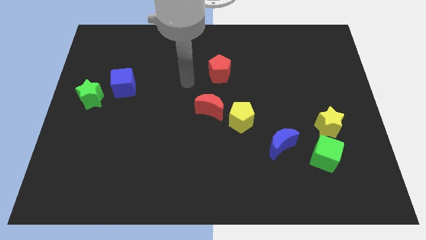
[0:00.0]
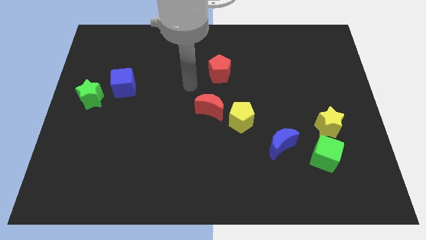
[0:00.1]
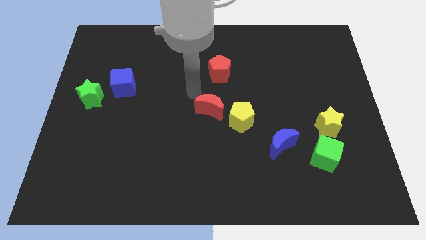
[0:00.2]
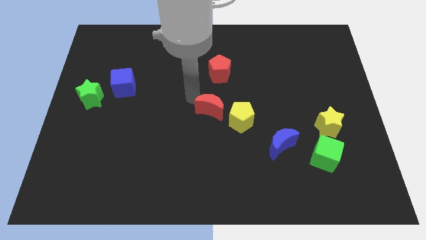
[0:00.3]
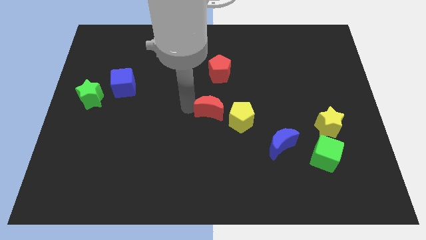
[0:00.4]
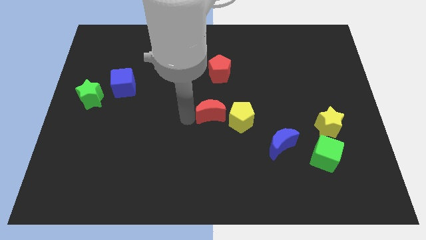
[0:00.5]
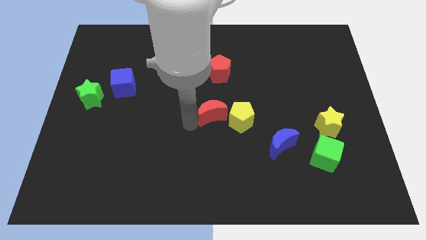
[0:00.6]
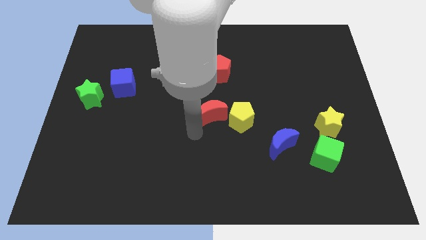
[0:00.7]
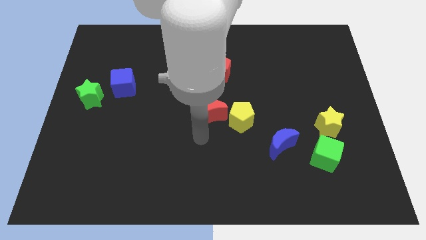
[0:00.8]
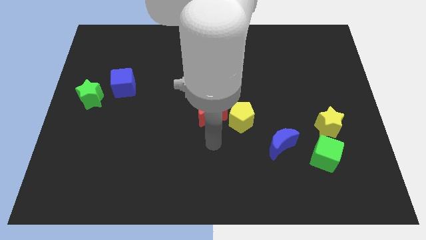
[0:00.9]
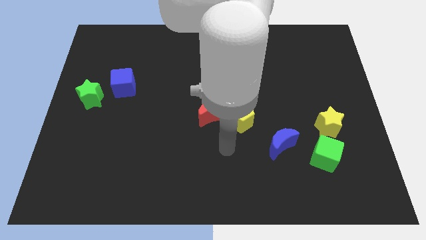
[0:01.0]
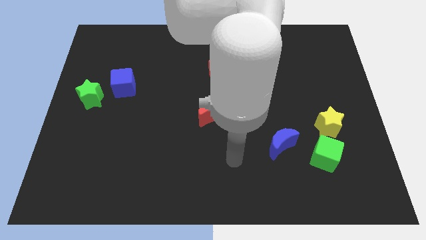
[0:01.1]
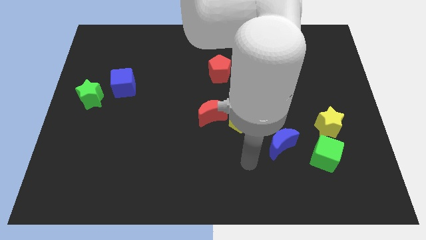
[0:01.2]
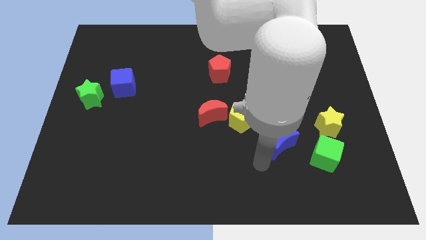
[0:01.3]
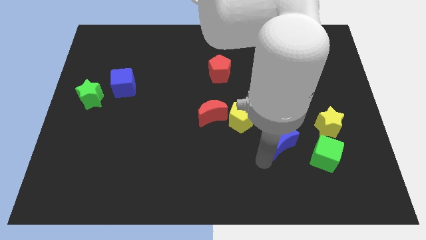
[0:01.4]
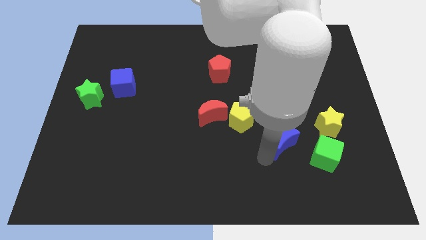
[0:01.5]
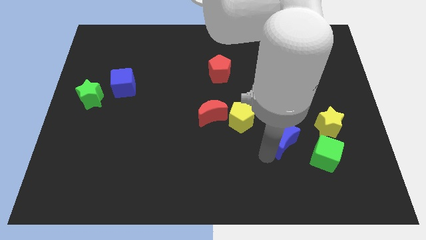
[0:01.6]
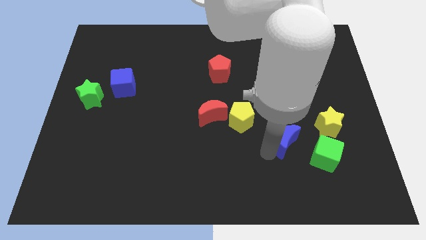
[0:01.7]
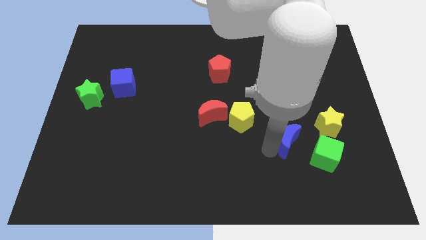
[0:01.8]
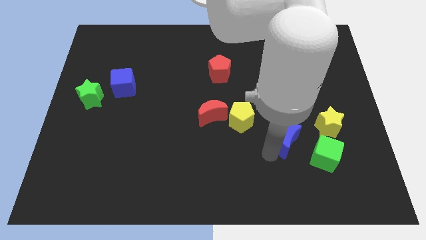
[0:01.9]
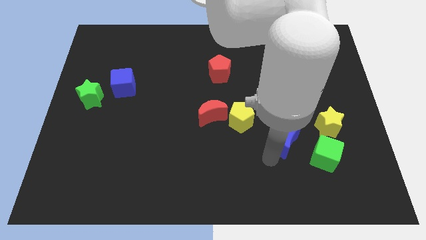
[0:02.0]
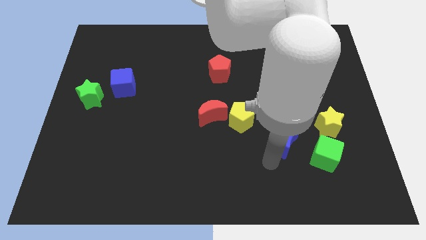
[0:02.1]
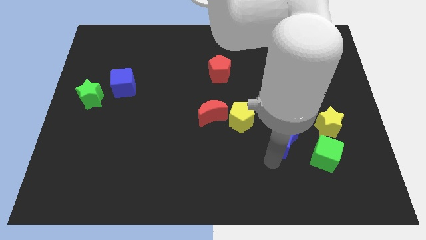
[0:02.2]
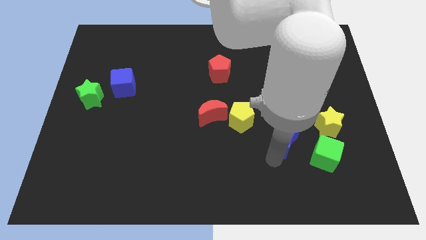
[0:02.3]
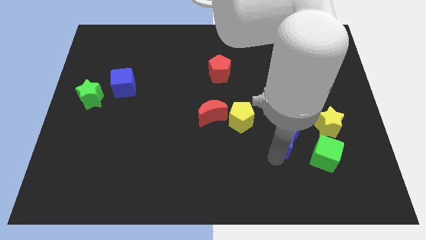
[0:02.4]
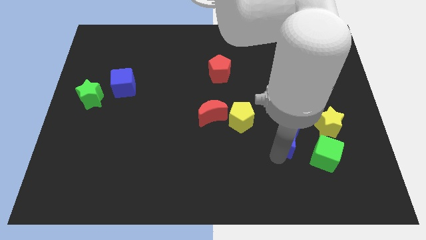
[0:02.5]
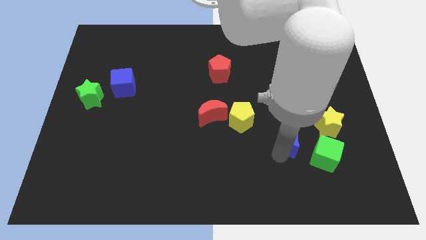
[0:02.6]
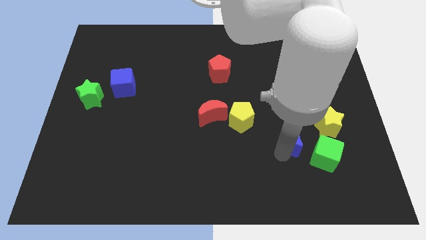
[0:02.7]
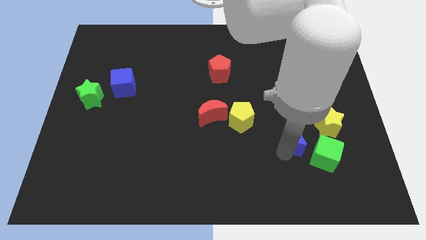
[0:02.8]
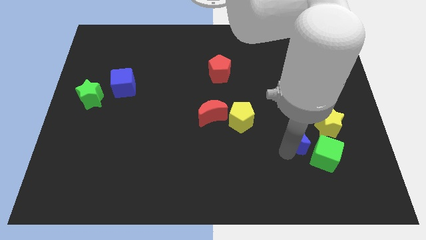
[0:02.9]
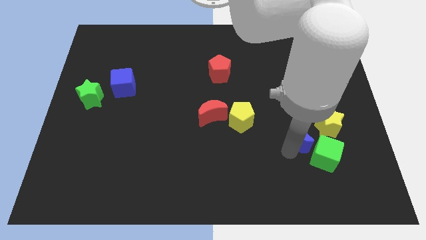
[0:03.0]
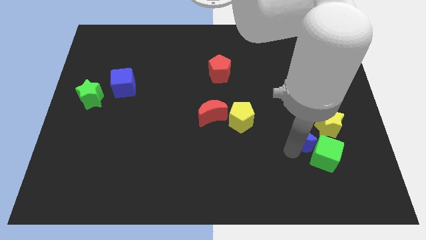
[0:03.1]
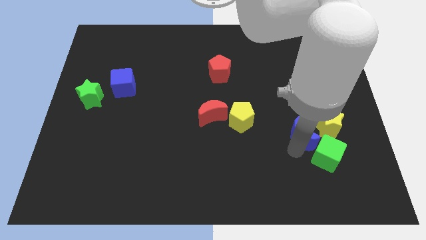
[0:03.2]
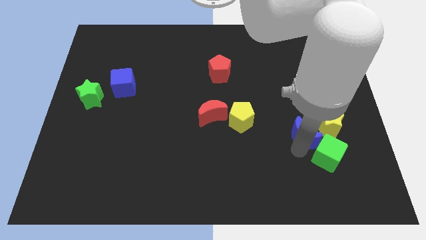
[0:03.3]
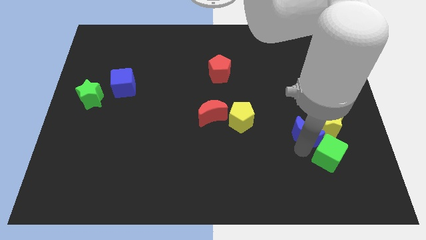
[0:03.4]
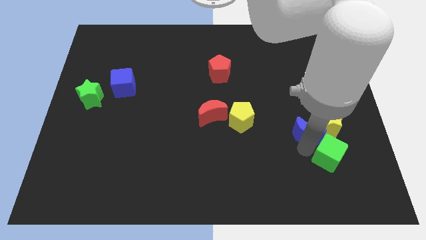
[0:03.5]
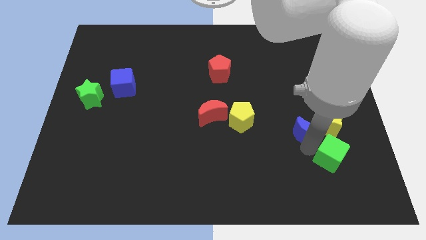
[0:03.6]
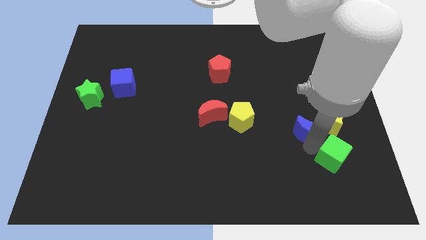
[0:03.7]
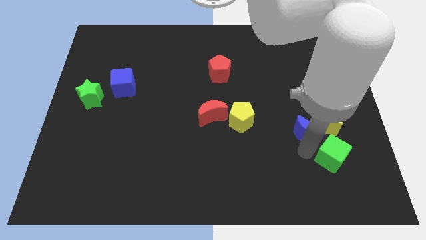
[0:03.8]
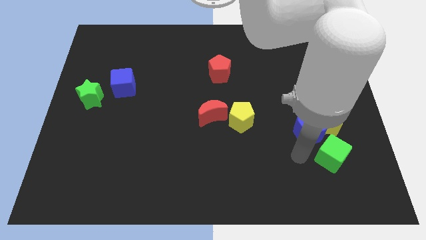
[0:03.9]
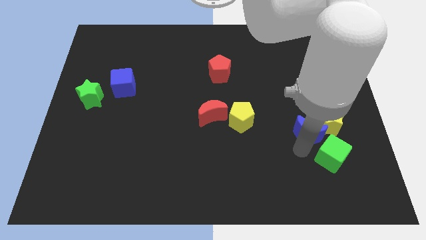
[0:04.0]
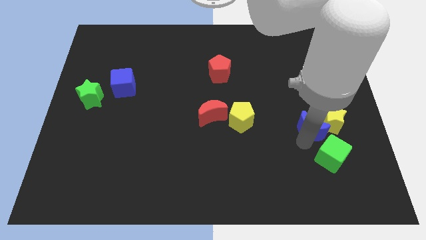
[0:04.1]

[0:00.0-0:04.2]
slightly push the blue moon diagonally up and right

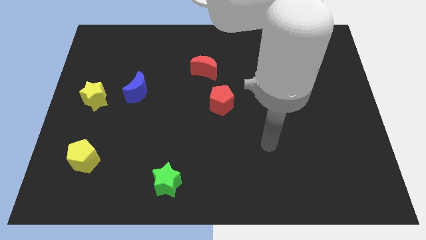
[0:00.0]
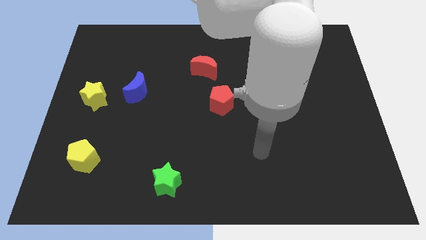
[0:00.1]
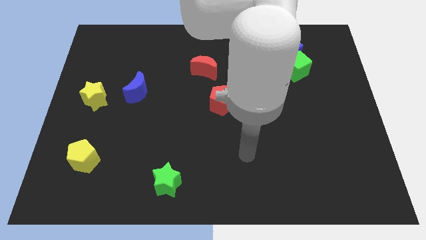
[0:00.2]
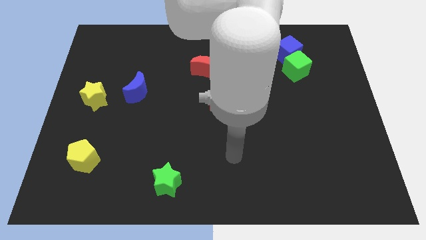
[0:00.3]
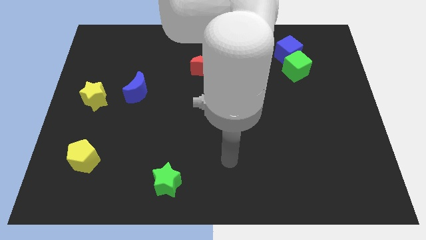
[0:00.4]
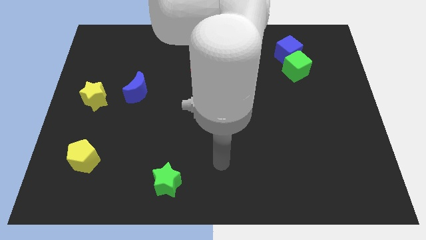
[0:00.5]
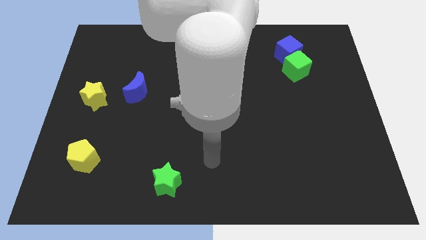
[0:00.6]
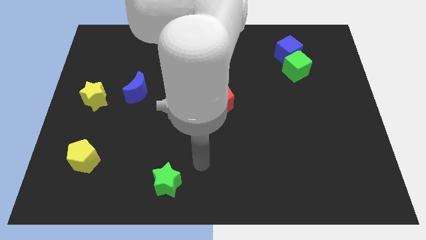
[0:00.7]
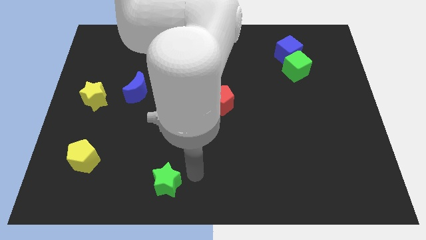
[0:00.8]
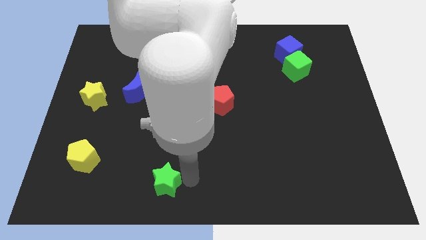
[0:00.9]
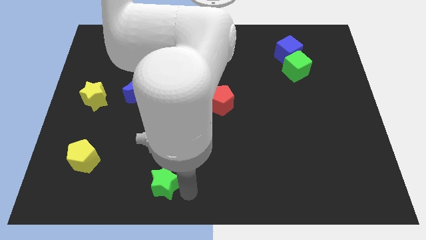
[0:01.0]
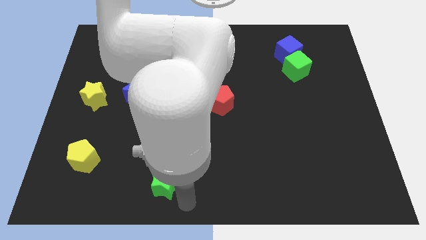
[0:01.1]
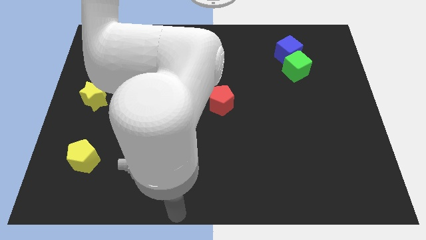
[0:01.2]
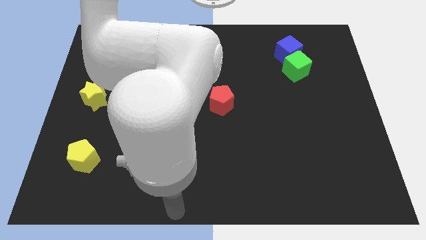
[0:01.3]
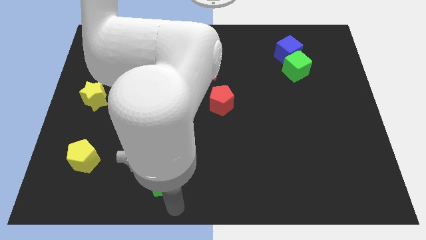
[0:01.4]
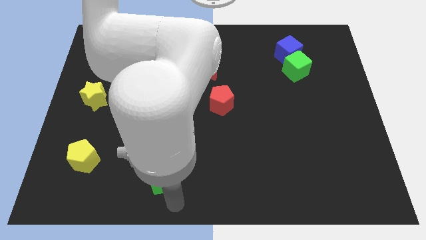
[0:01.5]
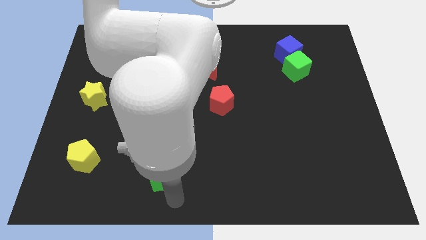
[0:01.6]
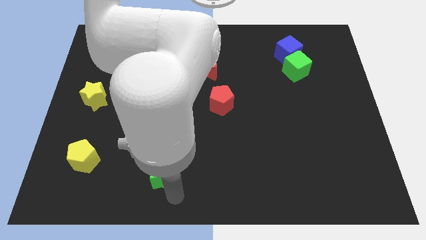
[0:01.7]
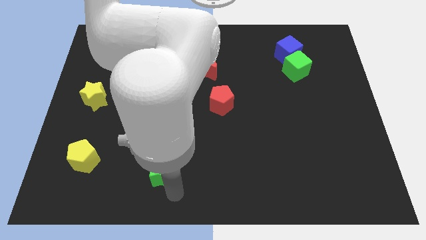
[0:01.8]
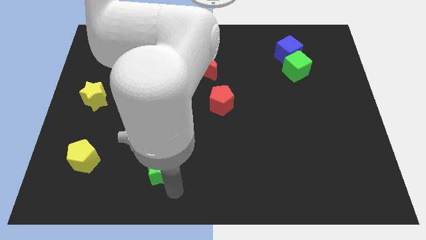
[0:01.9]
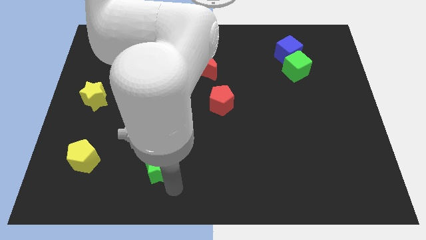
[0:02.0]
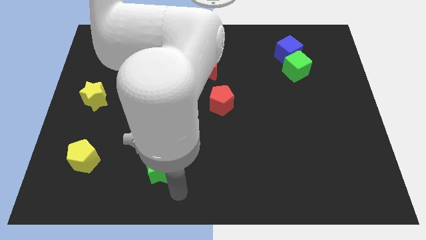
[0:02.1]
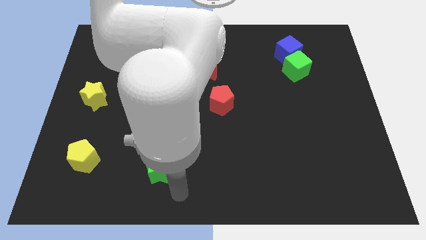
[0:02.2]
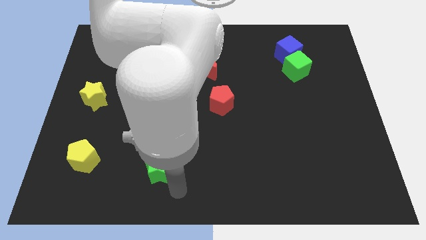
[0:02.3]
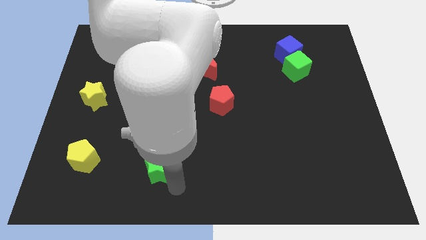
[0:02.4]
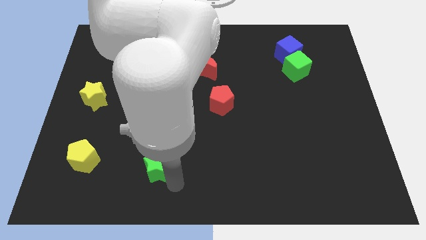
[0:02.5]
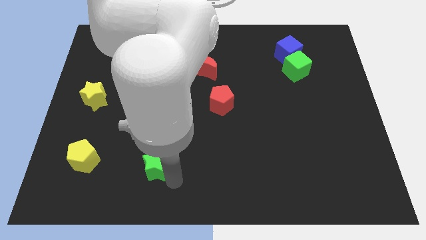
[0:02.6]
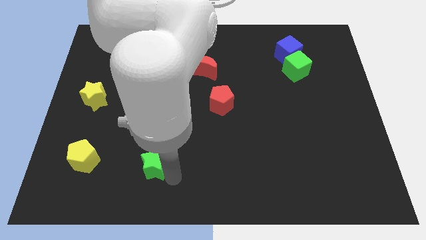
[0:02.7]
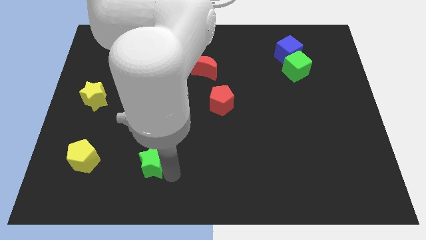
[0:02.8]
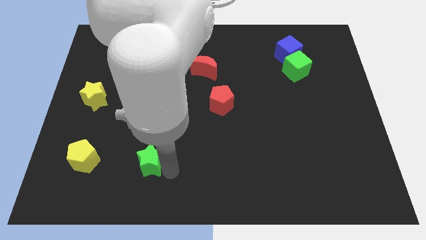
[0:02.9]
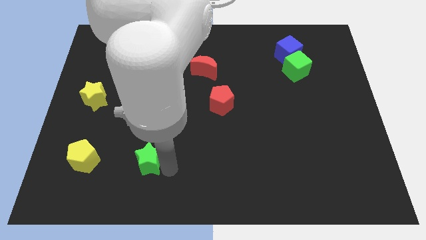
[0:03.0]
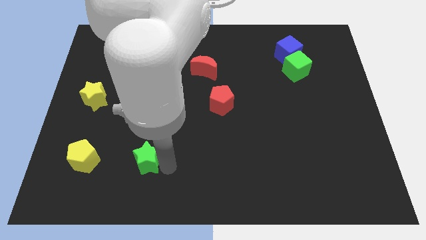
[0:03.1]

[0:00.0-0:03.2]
slide the green star upwards and then to the left somewhat

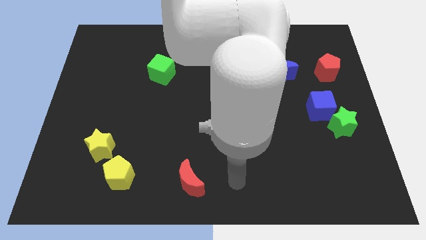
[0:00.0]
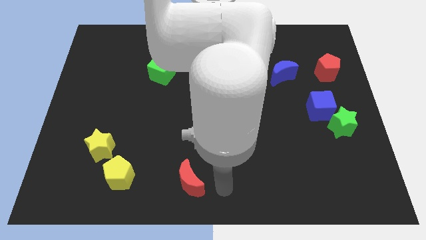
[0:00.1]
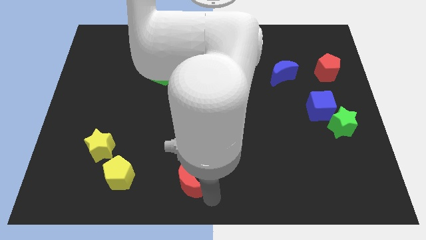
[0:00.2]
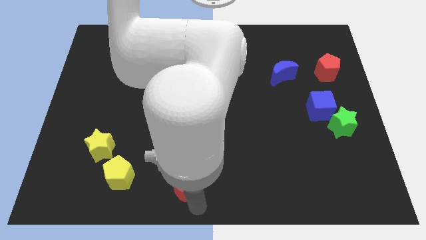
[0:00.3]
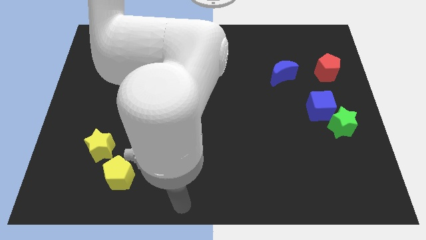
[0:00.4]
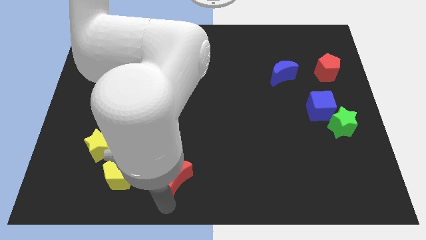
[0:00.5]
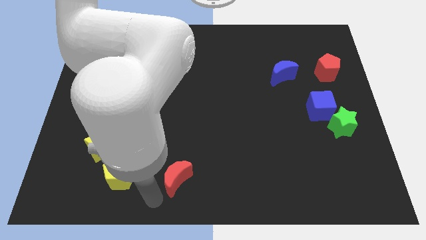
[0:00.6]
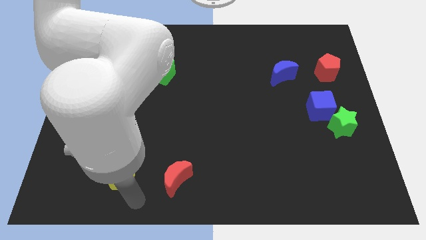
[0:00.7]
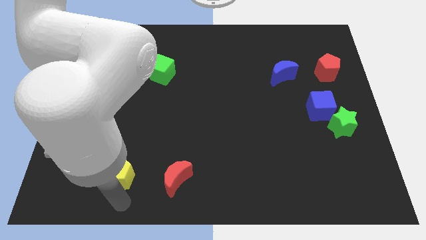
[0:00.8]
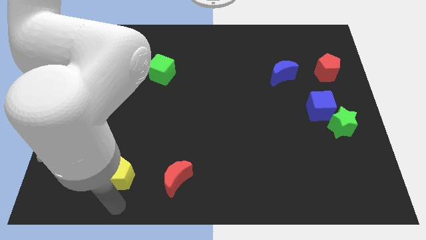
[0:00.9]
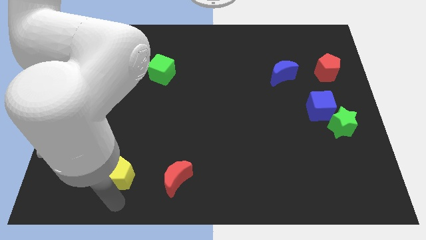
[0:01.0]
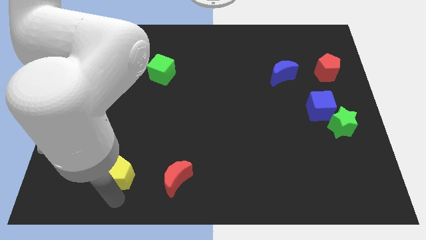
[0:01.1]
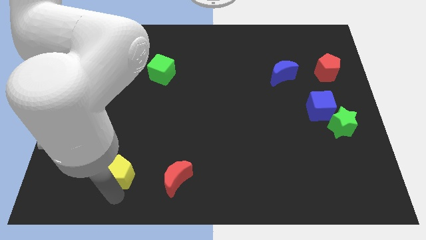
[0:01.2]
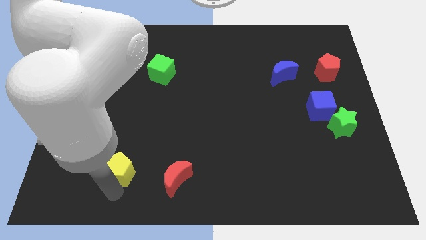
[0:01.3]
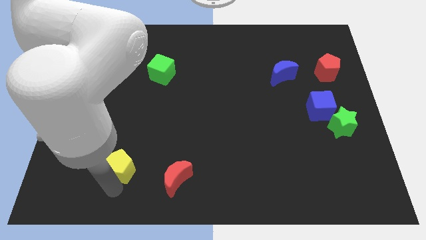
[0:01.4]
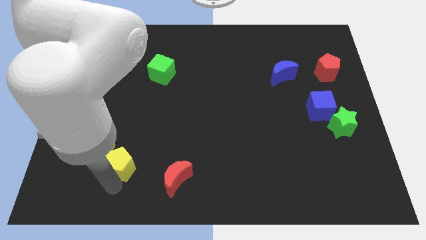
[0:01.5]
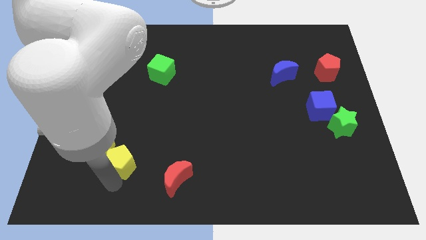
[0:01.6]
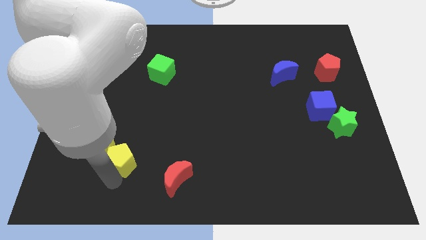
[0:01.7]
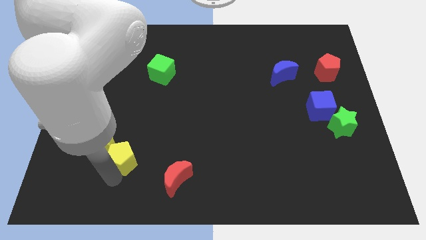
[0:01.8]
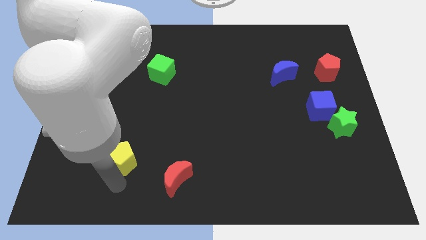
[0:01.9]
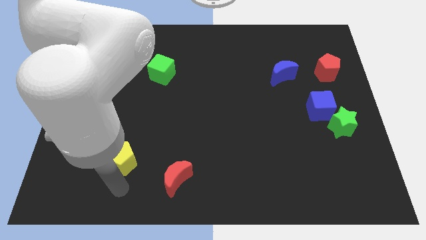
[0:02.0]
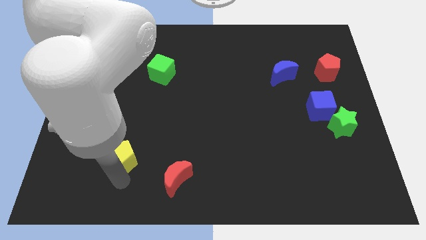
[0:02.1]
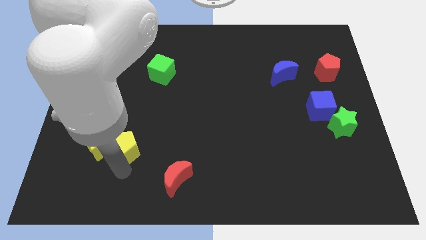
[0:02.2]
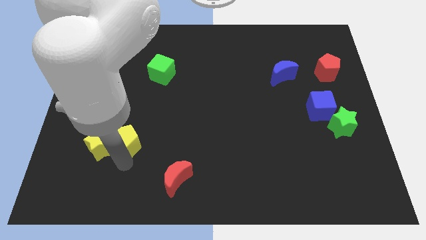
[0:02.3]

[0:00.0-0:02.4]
slide the yellow pentagon up a little bit
